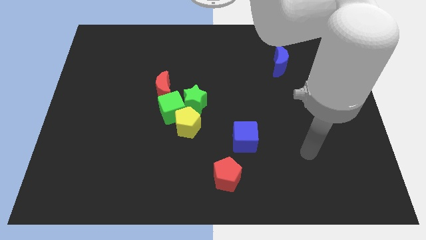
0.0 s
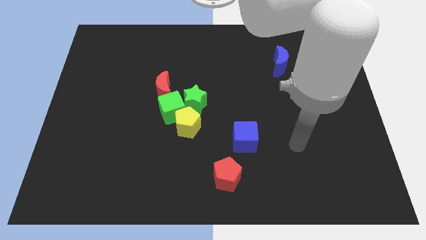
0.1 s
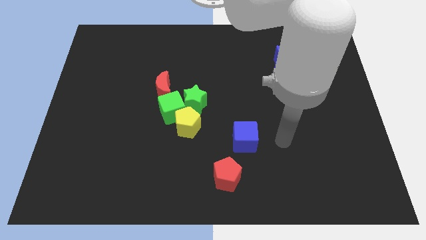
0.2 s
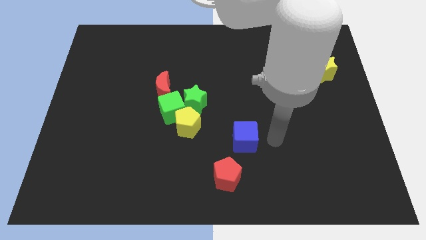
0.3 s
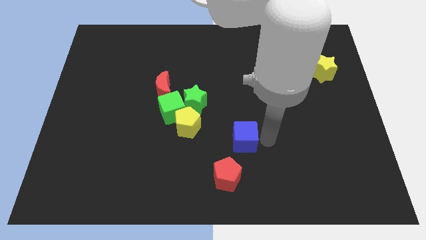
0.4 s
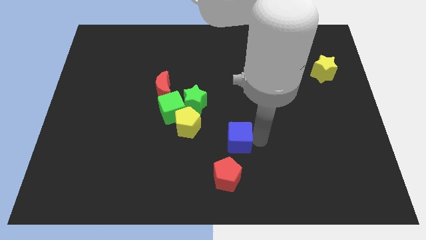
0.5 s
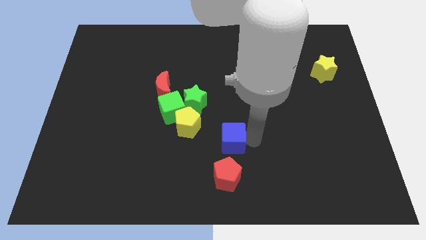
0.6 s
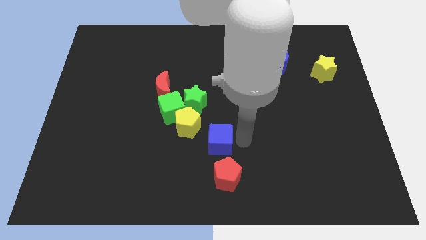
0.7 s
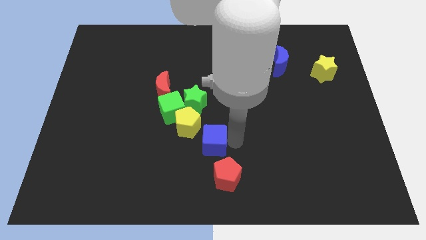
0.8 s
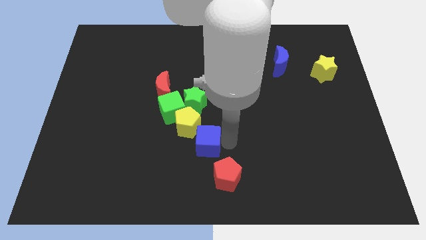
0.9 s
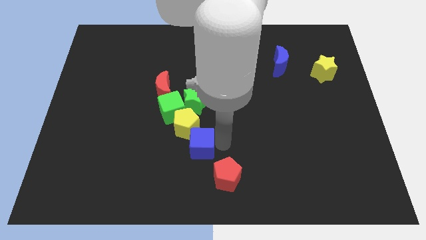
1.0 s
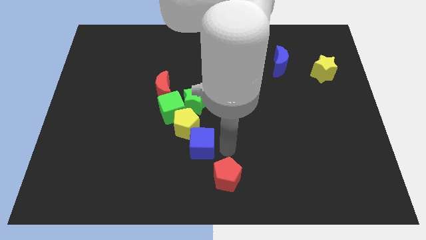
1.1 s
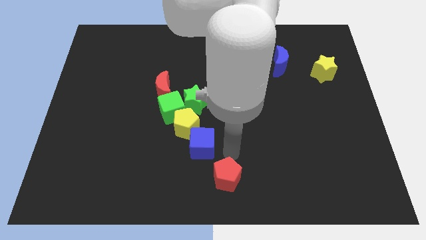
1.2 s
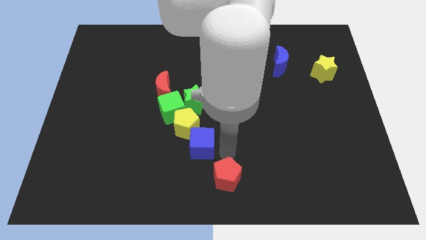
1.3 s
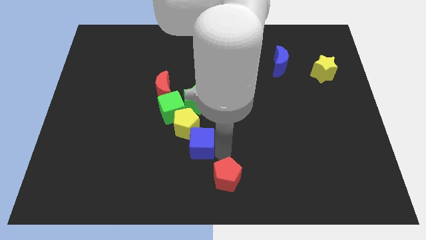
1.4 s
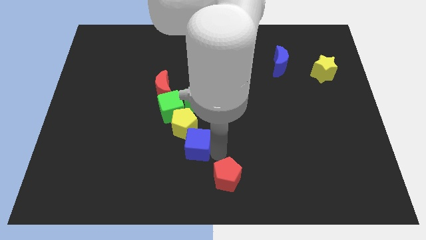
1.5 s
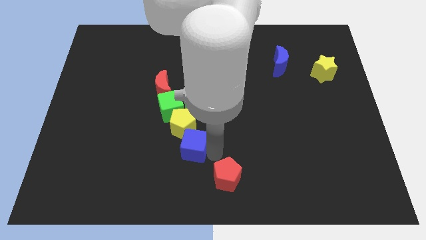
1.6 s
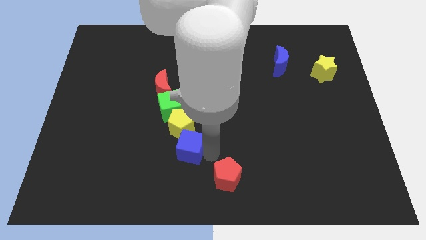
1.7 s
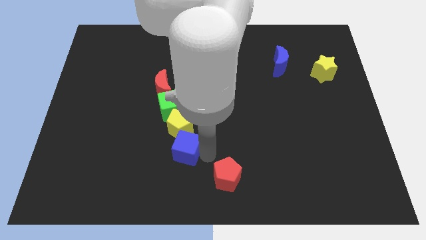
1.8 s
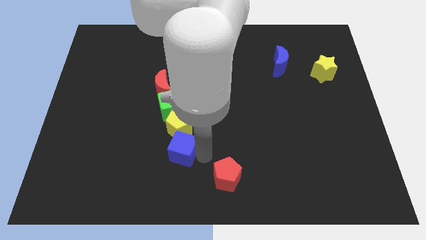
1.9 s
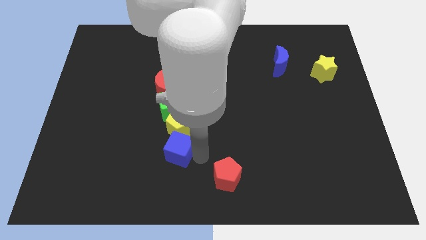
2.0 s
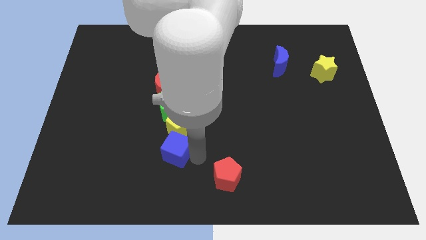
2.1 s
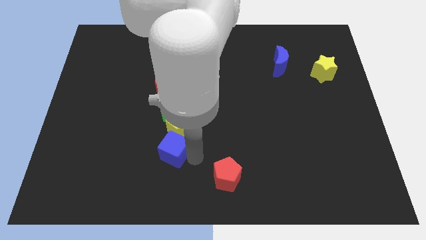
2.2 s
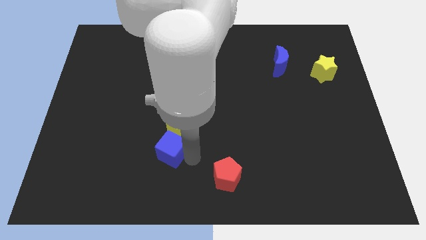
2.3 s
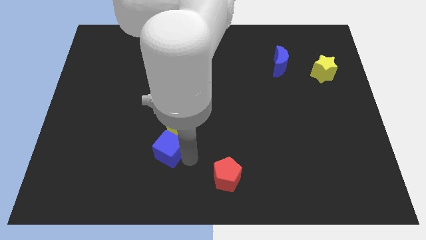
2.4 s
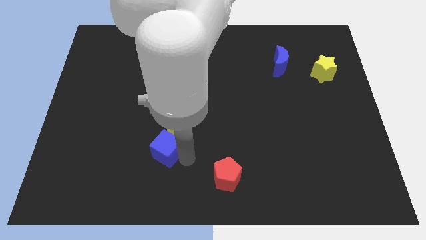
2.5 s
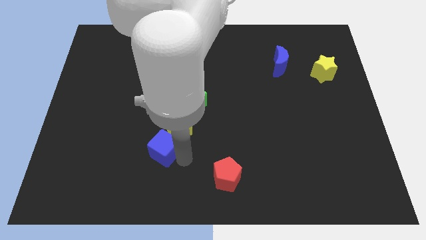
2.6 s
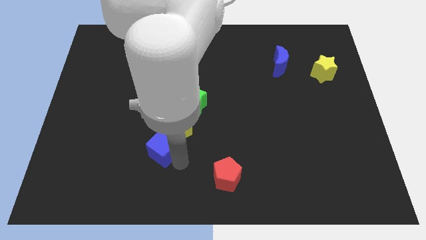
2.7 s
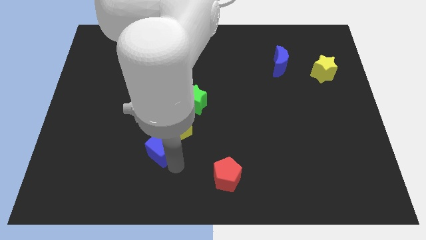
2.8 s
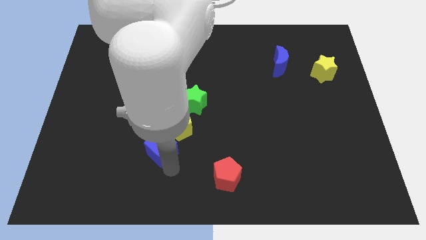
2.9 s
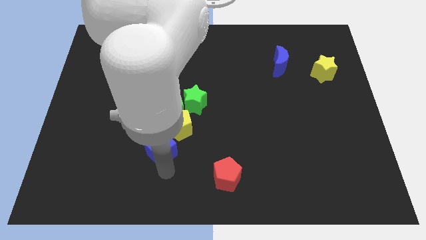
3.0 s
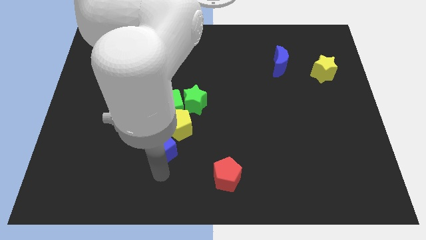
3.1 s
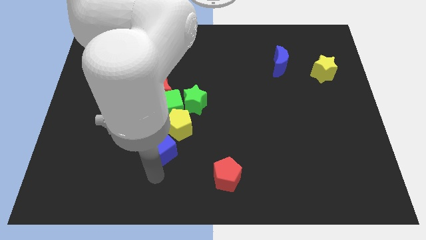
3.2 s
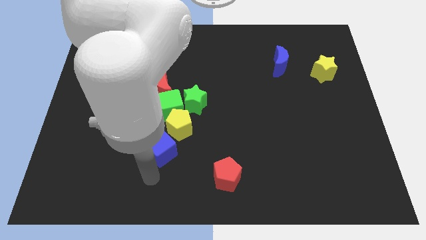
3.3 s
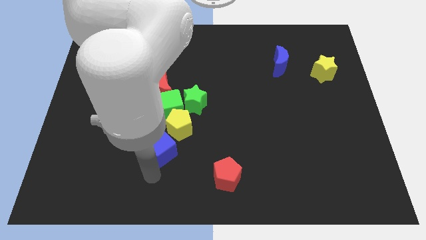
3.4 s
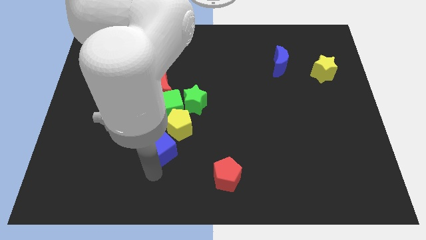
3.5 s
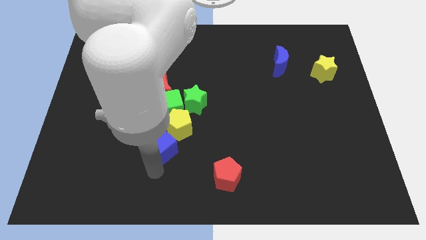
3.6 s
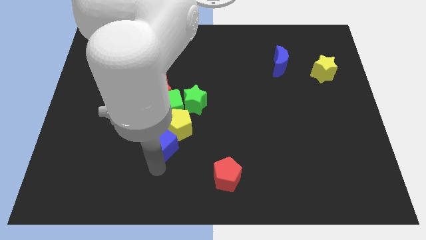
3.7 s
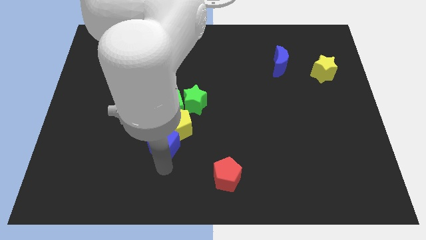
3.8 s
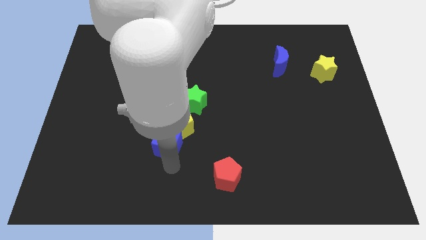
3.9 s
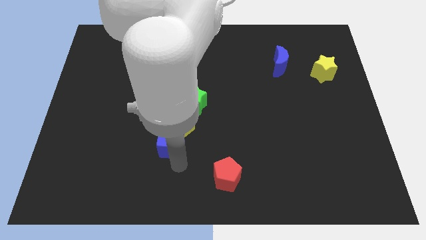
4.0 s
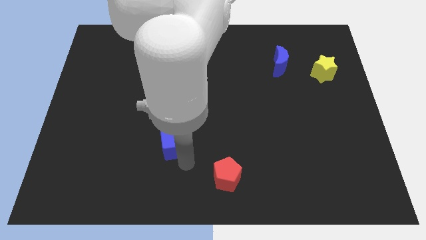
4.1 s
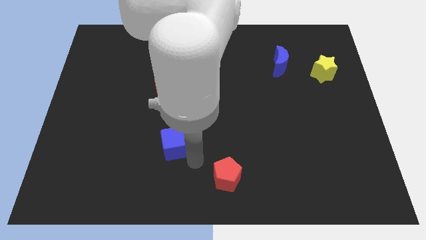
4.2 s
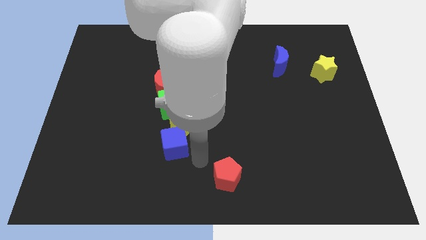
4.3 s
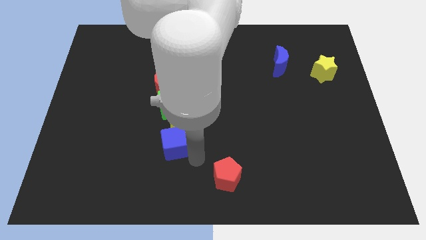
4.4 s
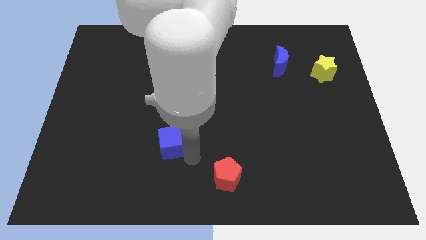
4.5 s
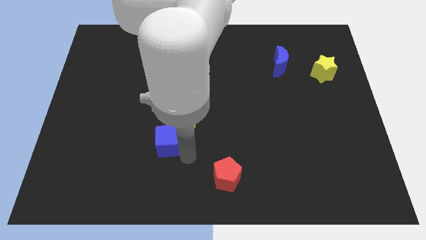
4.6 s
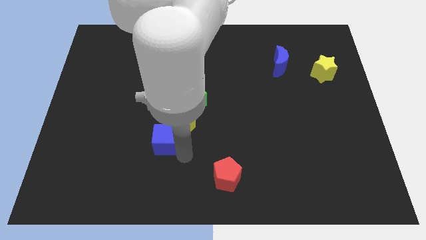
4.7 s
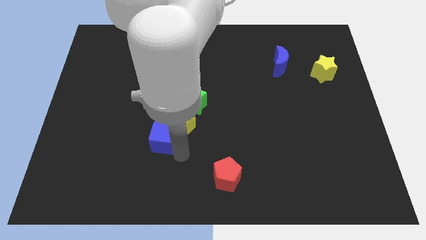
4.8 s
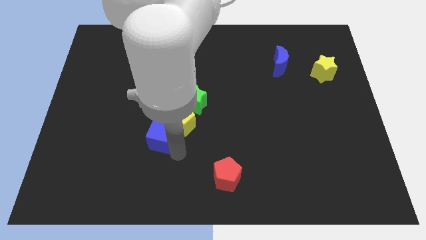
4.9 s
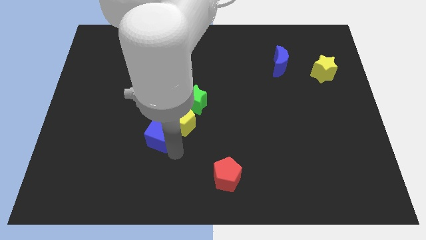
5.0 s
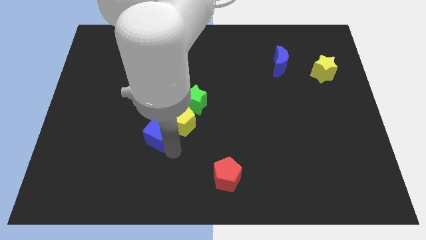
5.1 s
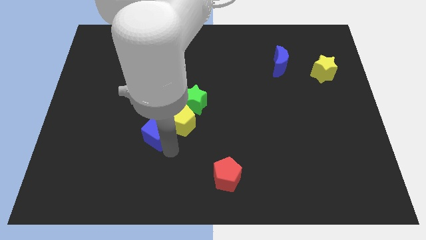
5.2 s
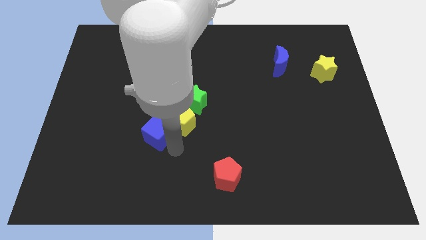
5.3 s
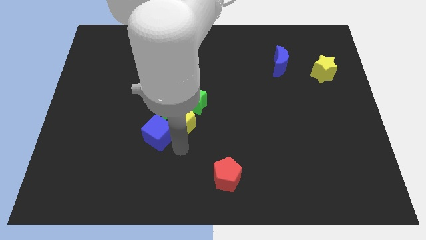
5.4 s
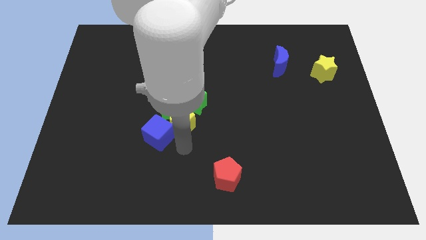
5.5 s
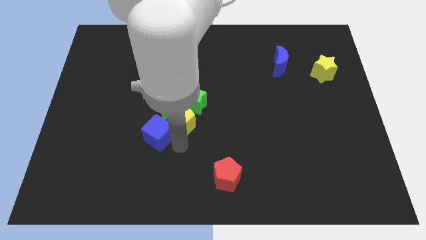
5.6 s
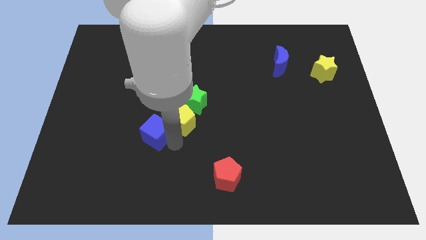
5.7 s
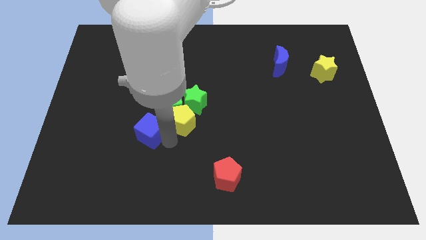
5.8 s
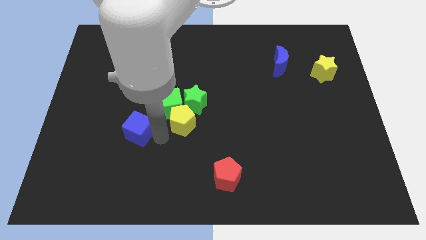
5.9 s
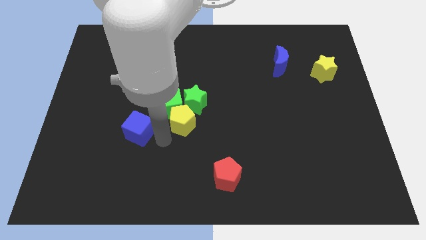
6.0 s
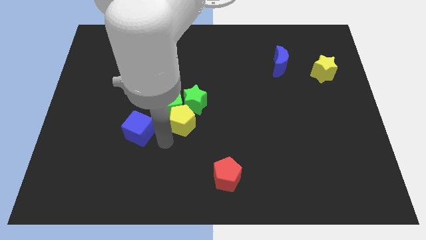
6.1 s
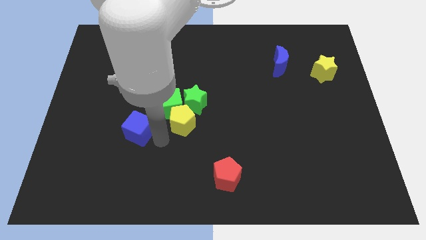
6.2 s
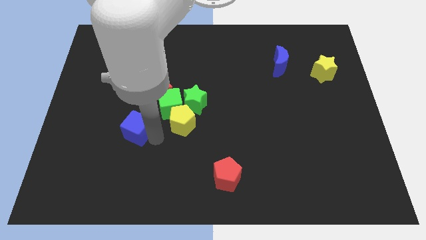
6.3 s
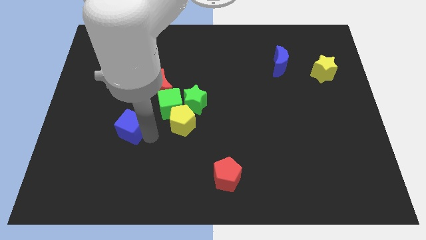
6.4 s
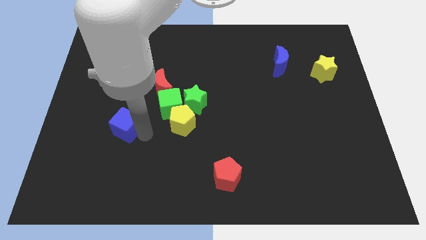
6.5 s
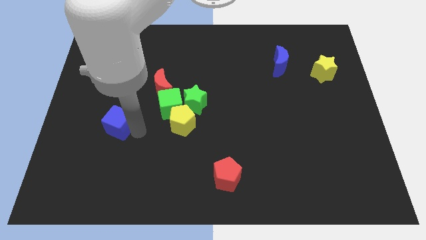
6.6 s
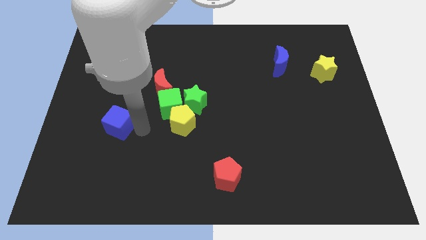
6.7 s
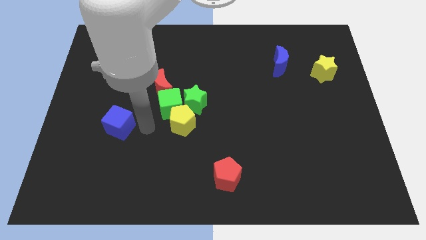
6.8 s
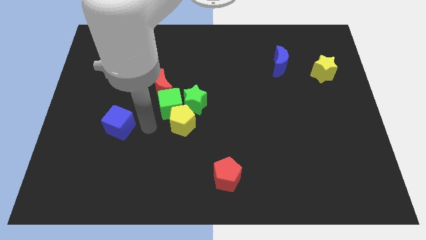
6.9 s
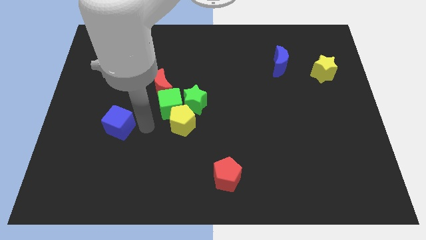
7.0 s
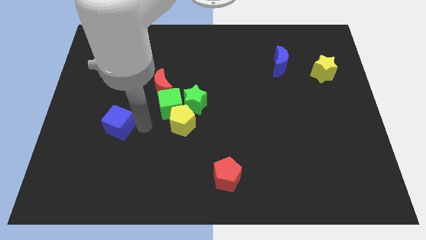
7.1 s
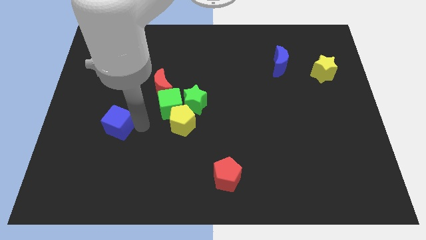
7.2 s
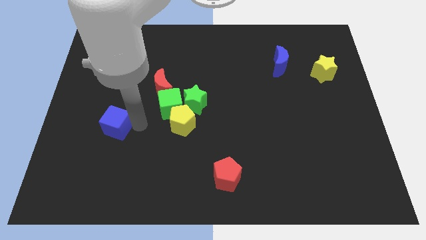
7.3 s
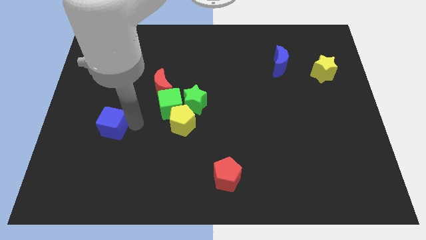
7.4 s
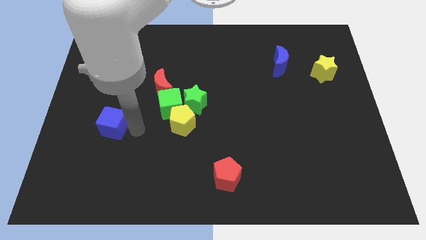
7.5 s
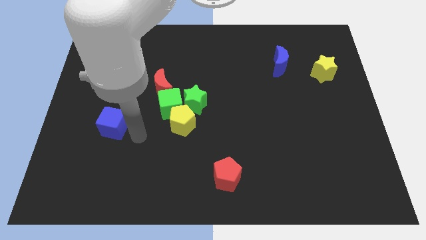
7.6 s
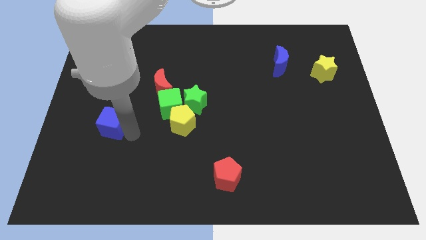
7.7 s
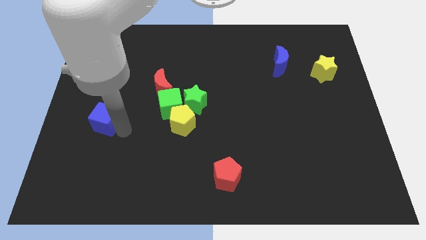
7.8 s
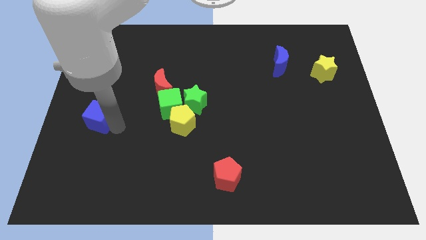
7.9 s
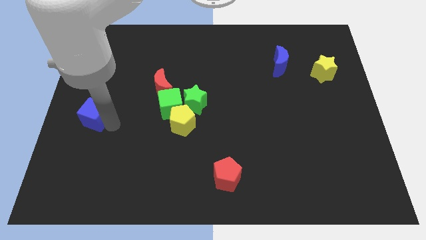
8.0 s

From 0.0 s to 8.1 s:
put the blue cube to the center left
